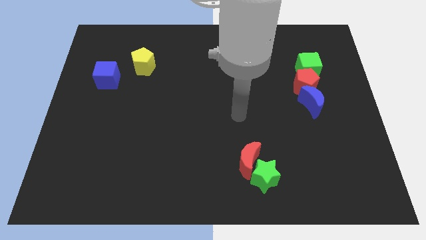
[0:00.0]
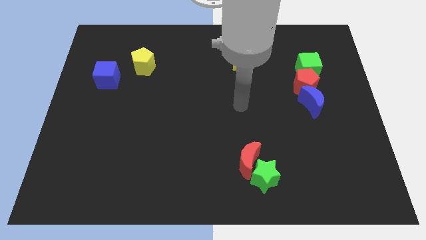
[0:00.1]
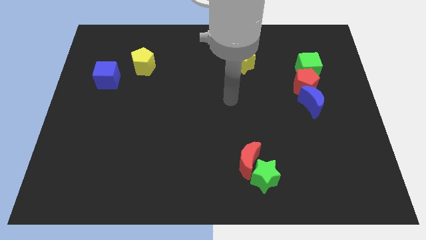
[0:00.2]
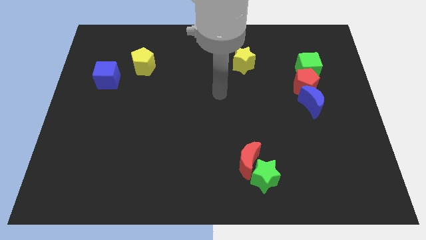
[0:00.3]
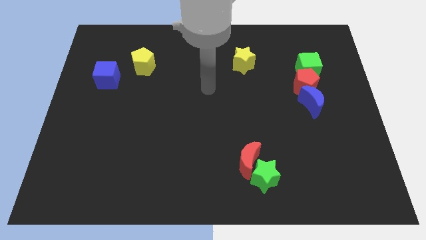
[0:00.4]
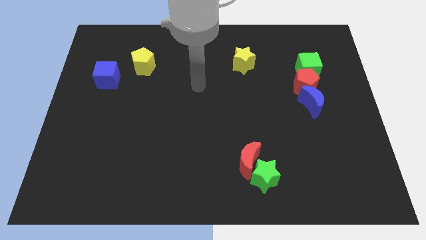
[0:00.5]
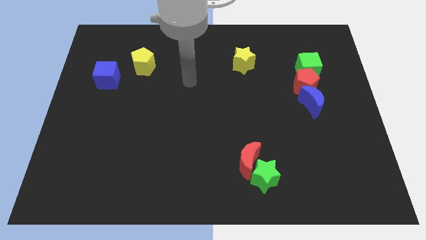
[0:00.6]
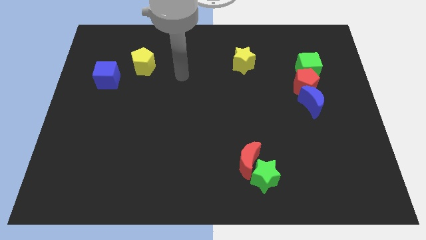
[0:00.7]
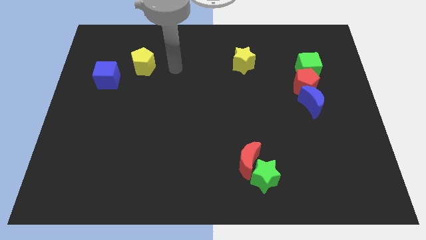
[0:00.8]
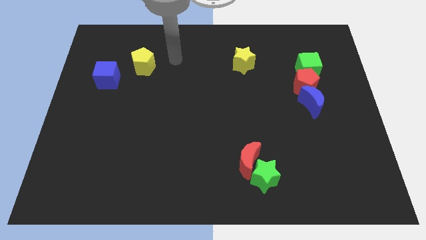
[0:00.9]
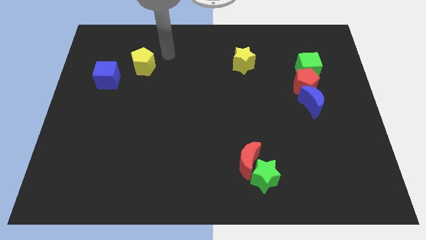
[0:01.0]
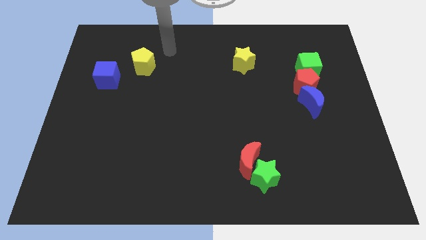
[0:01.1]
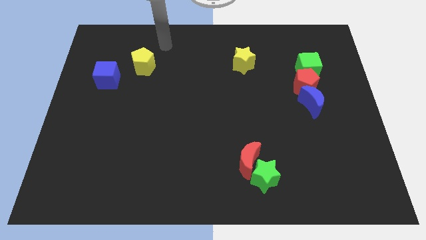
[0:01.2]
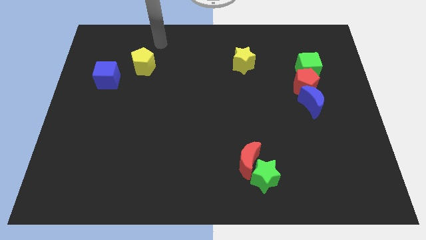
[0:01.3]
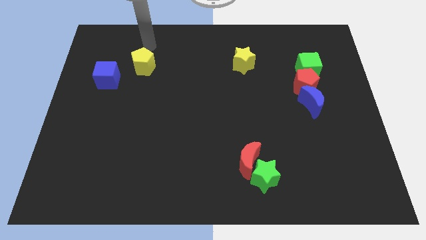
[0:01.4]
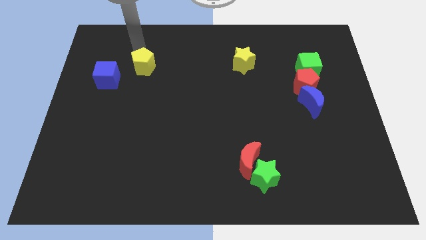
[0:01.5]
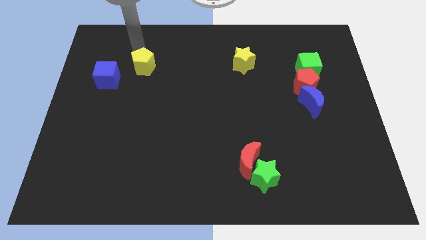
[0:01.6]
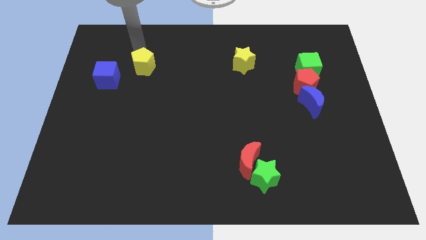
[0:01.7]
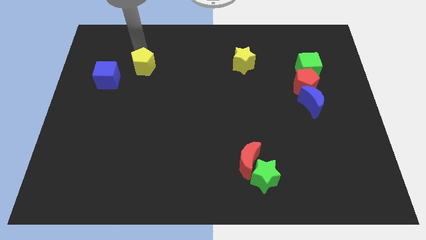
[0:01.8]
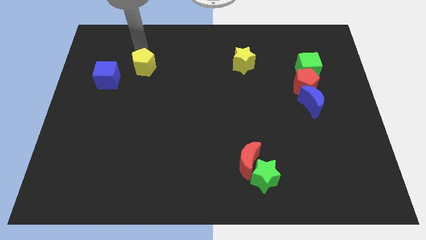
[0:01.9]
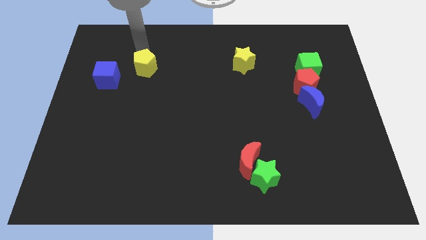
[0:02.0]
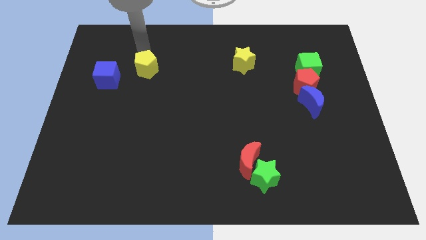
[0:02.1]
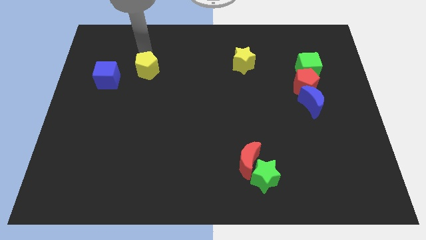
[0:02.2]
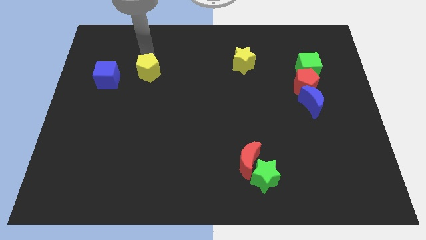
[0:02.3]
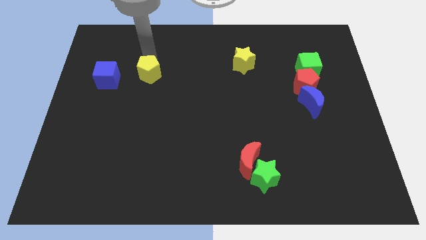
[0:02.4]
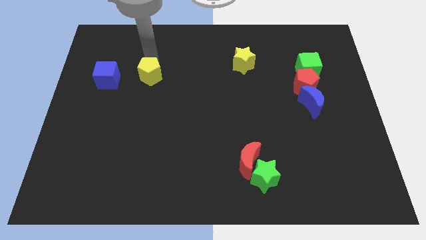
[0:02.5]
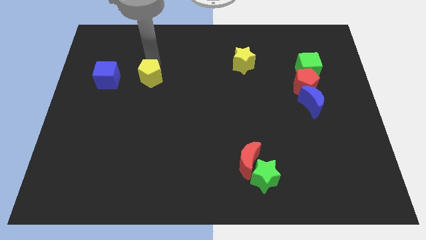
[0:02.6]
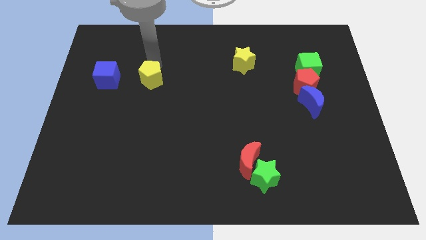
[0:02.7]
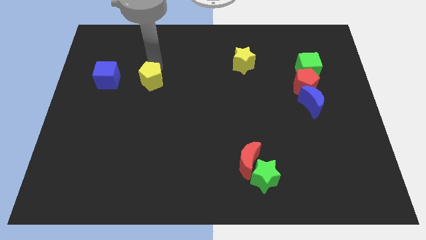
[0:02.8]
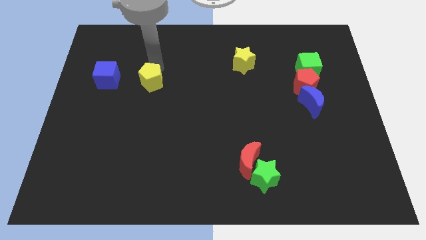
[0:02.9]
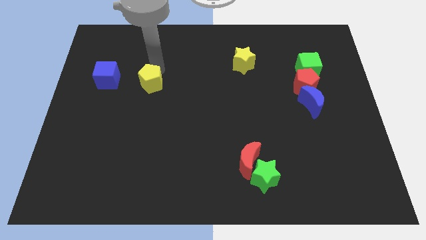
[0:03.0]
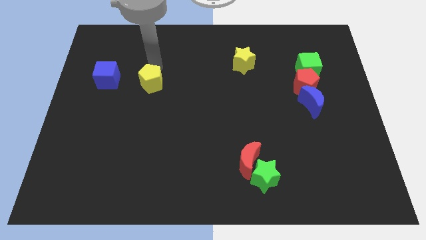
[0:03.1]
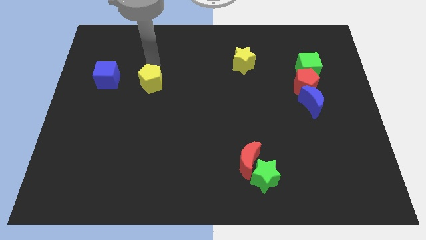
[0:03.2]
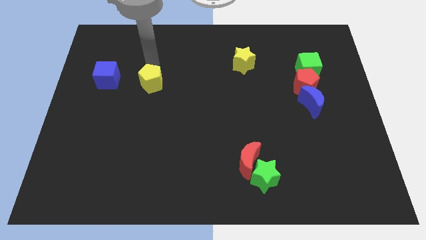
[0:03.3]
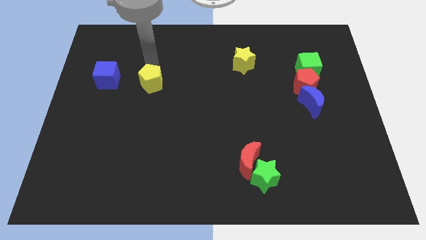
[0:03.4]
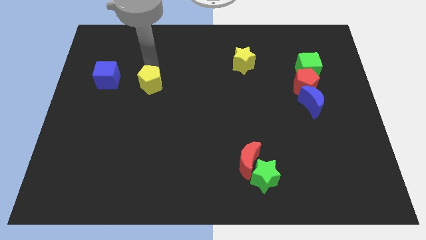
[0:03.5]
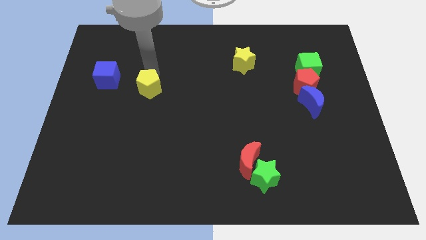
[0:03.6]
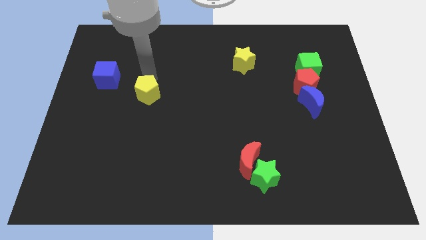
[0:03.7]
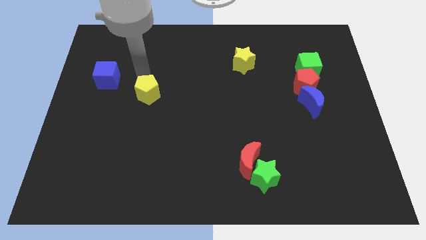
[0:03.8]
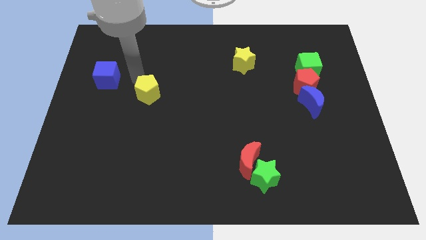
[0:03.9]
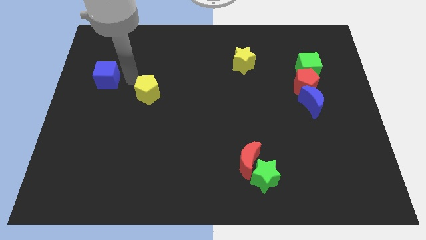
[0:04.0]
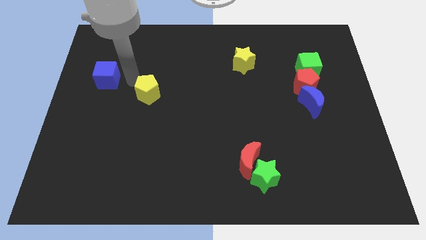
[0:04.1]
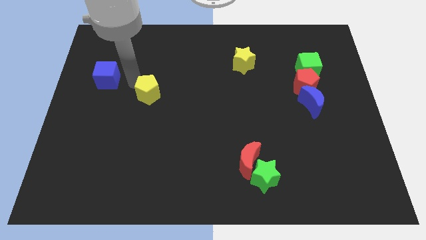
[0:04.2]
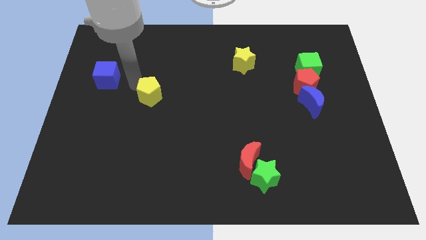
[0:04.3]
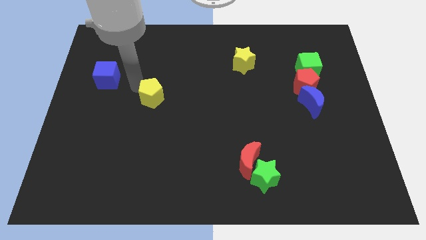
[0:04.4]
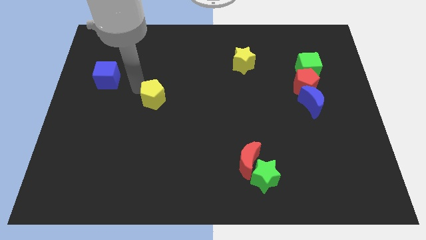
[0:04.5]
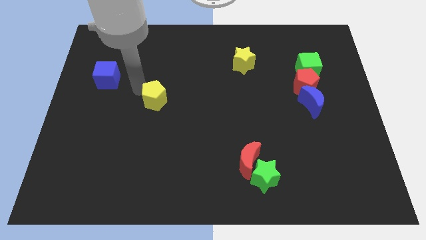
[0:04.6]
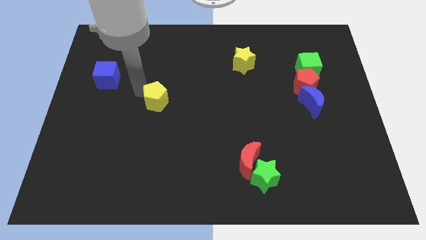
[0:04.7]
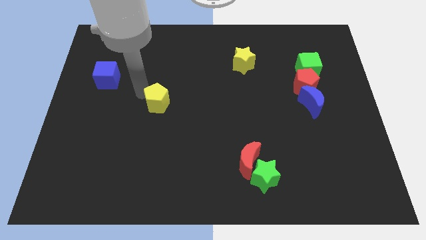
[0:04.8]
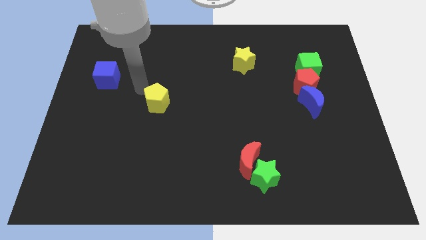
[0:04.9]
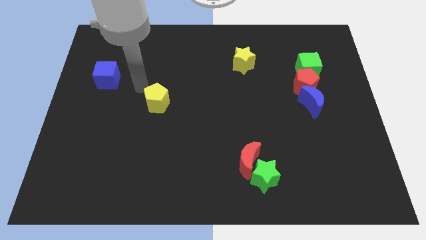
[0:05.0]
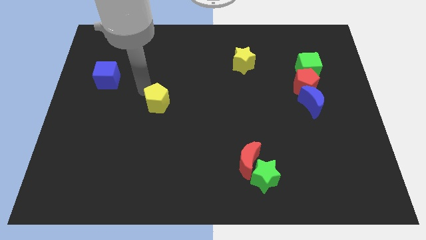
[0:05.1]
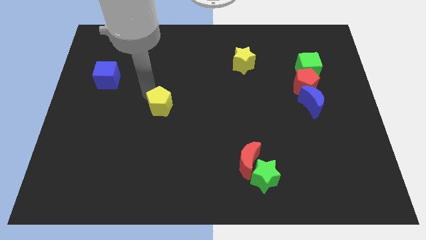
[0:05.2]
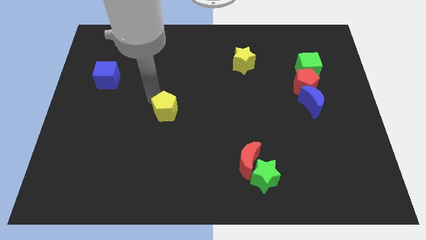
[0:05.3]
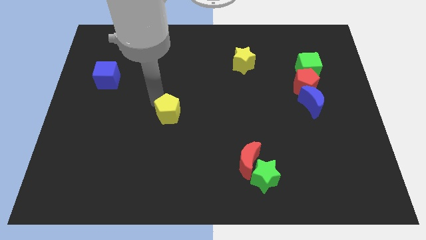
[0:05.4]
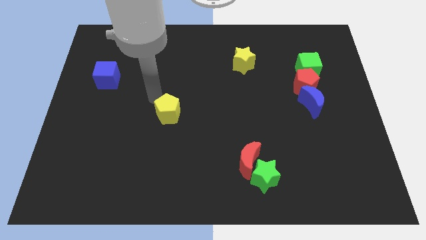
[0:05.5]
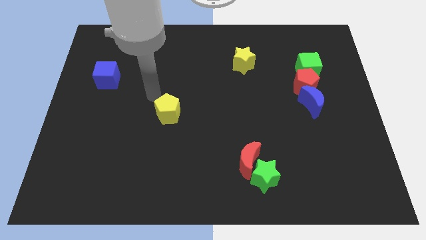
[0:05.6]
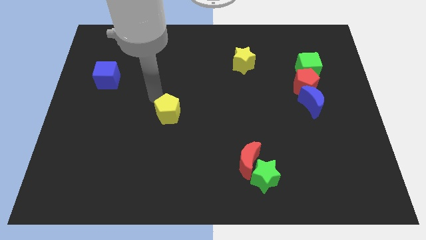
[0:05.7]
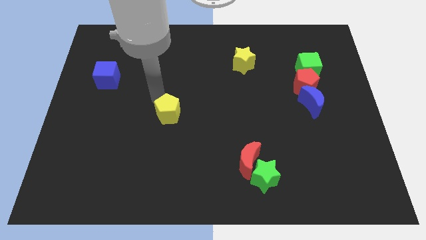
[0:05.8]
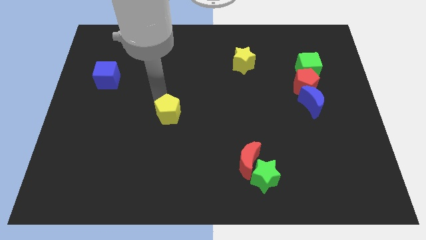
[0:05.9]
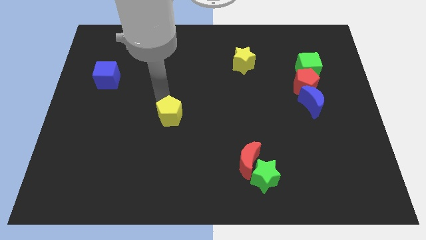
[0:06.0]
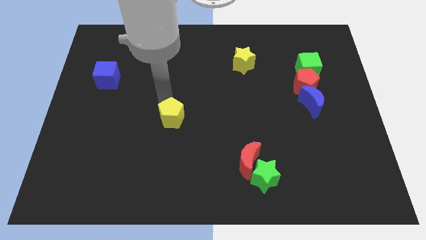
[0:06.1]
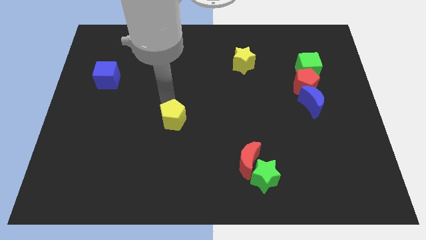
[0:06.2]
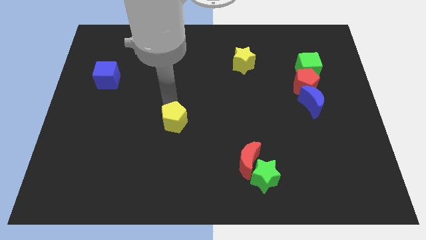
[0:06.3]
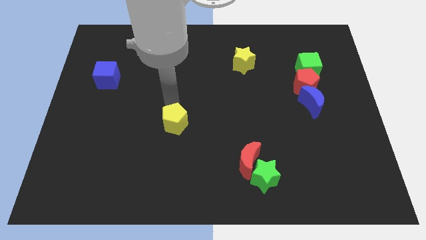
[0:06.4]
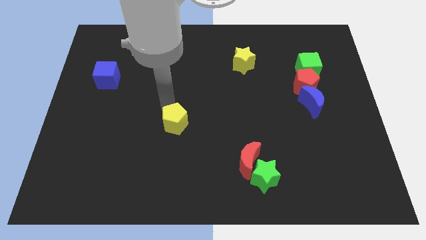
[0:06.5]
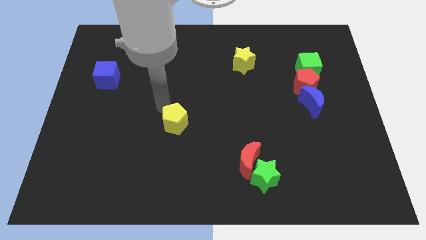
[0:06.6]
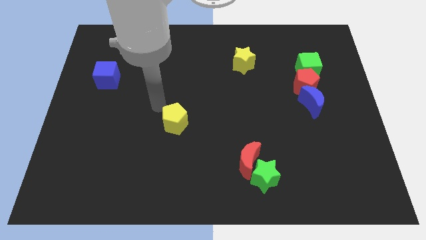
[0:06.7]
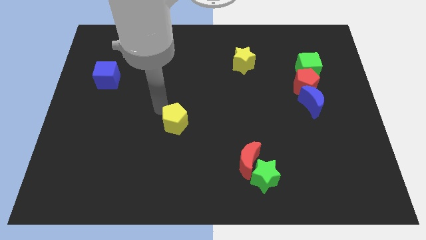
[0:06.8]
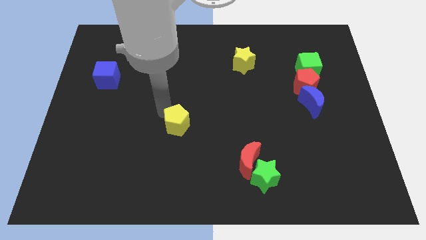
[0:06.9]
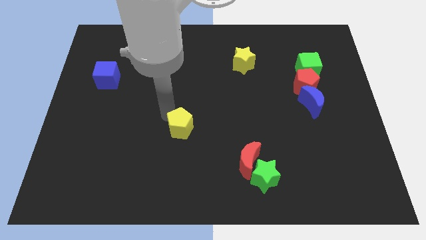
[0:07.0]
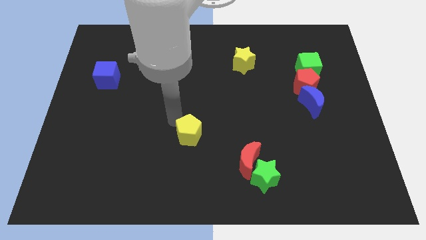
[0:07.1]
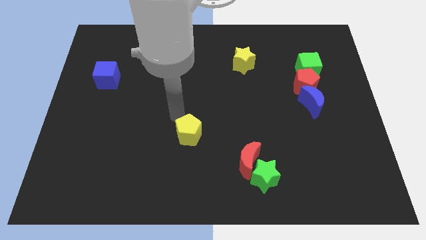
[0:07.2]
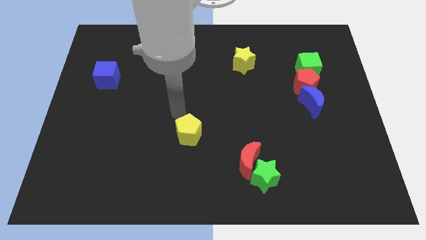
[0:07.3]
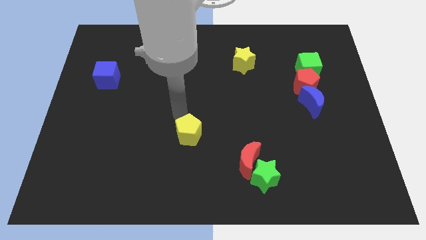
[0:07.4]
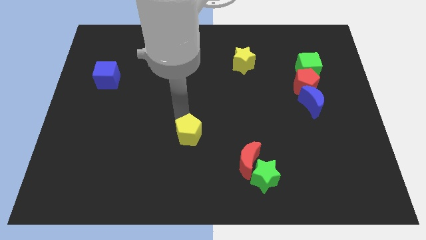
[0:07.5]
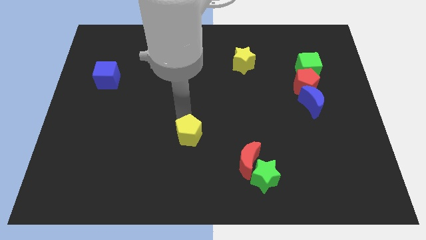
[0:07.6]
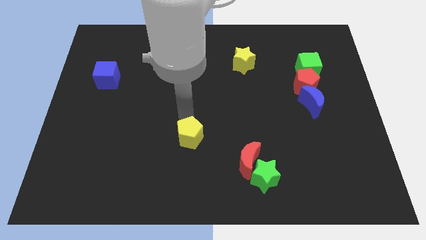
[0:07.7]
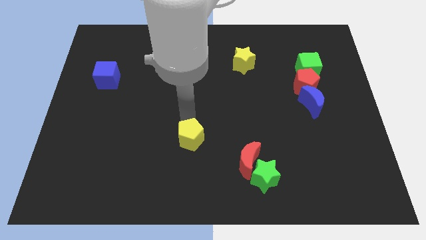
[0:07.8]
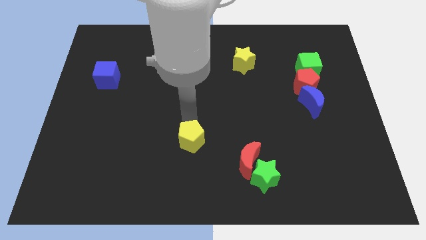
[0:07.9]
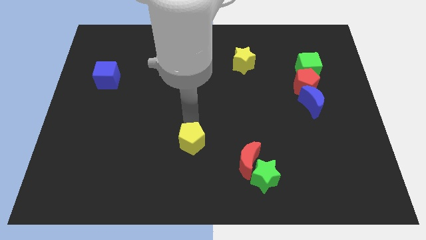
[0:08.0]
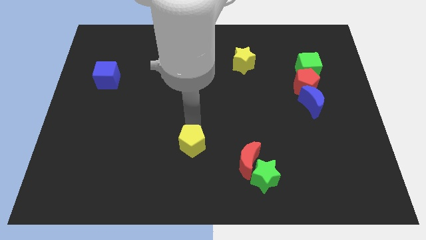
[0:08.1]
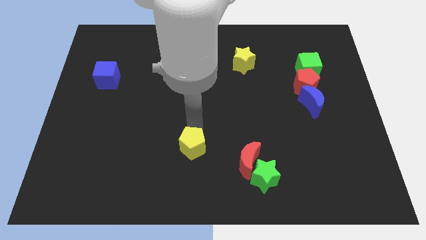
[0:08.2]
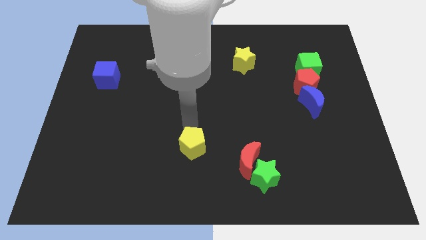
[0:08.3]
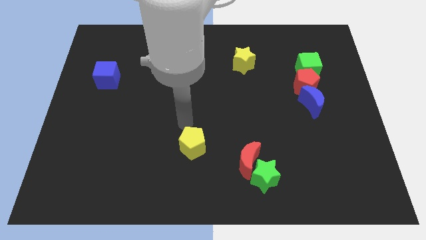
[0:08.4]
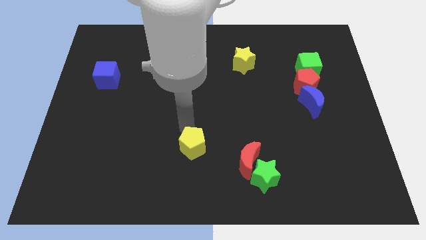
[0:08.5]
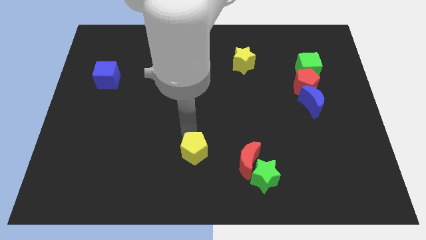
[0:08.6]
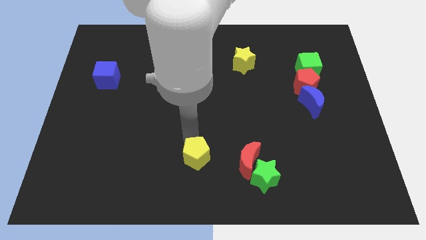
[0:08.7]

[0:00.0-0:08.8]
move the yellow pentagon to the bottom side
